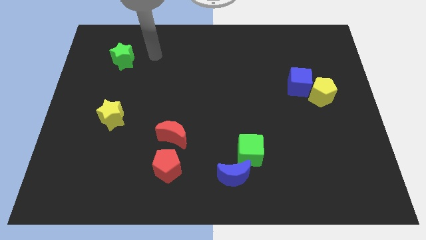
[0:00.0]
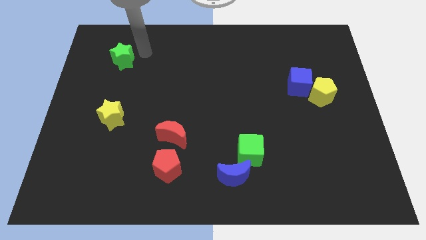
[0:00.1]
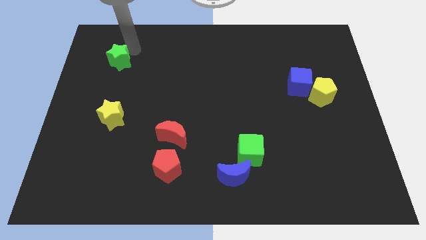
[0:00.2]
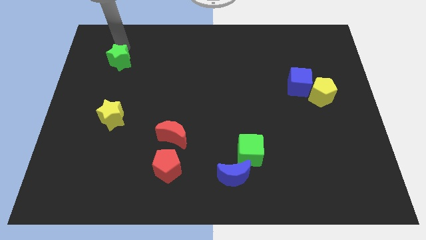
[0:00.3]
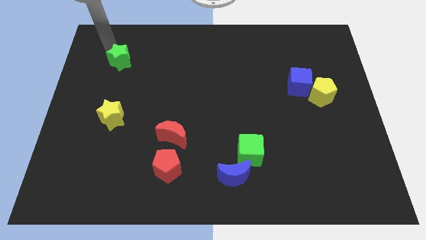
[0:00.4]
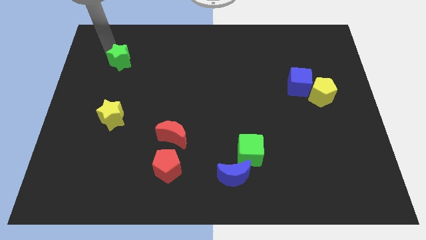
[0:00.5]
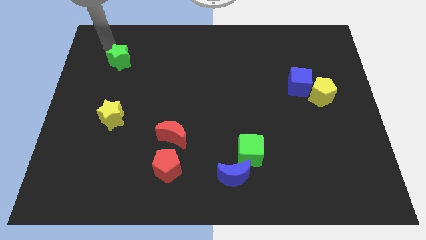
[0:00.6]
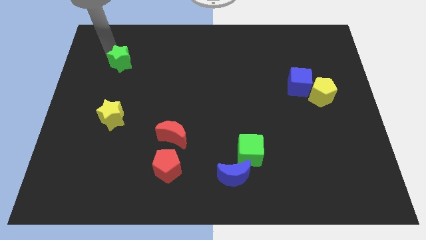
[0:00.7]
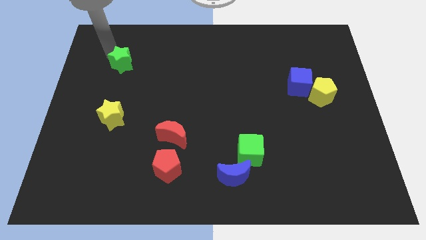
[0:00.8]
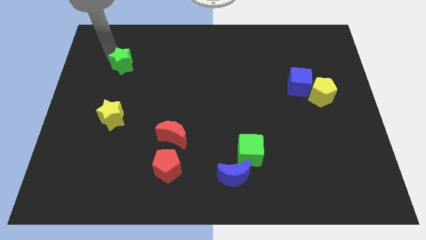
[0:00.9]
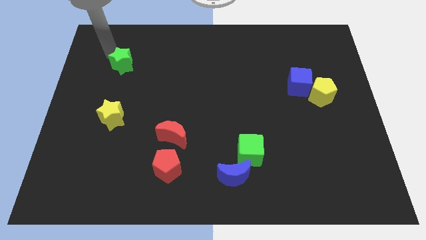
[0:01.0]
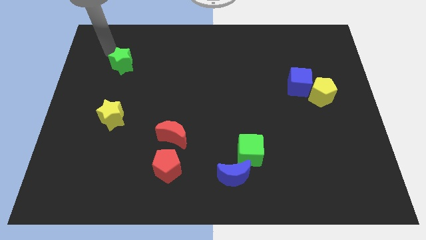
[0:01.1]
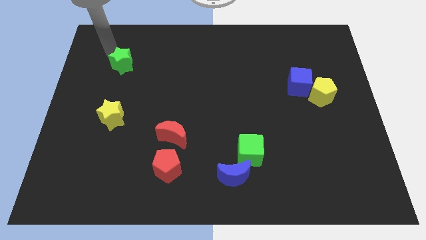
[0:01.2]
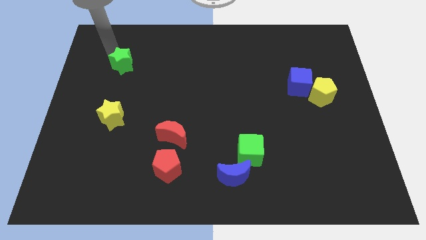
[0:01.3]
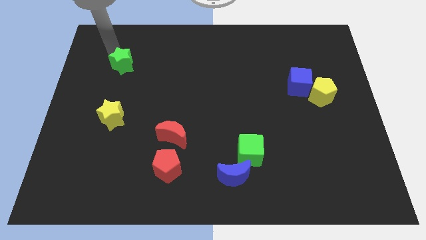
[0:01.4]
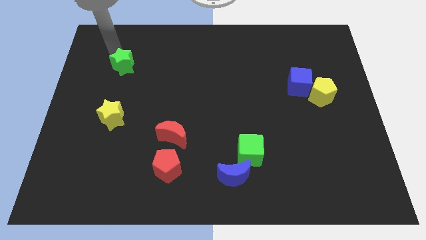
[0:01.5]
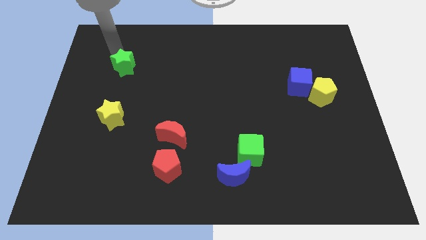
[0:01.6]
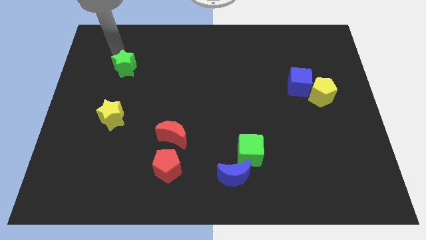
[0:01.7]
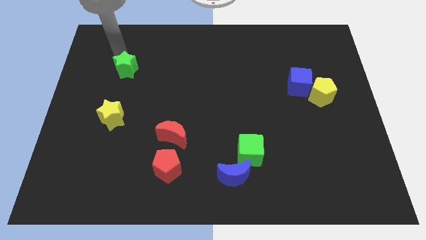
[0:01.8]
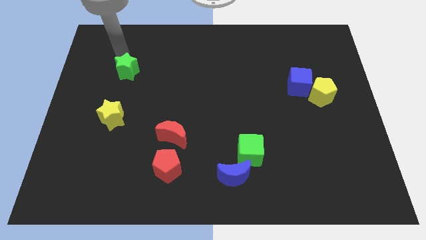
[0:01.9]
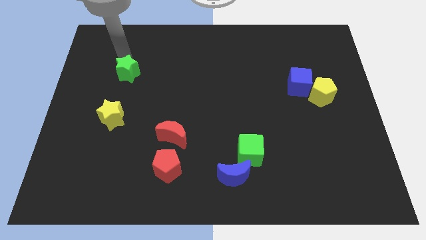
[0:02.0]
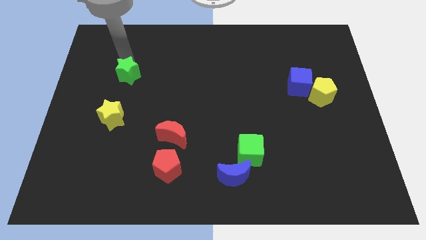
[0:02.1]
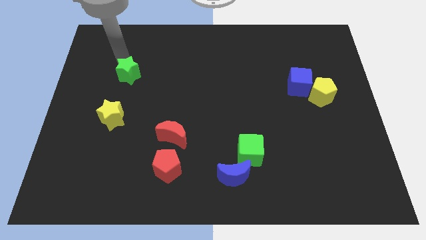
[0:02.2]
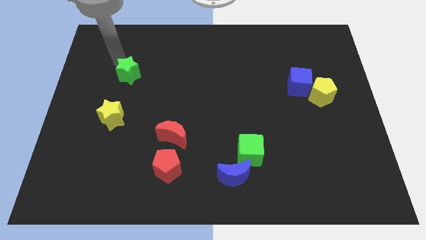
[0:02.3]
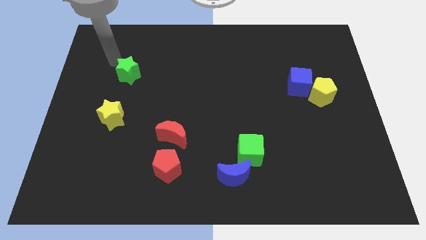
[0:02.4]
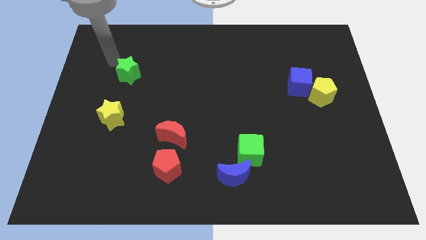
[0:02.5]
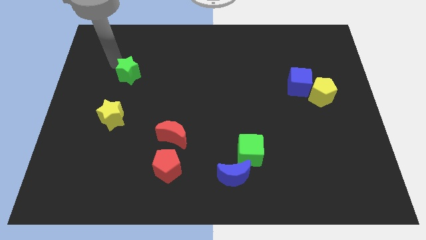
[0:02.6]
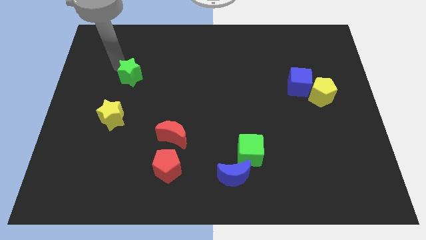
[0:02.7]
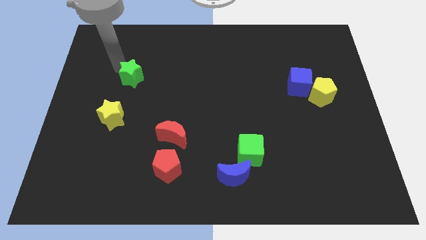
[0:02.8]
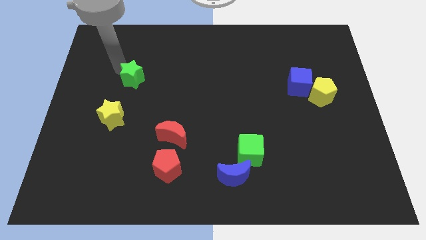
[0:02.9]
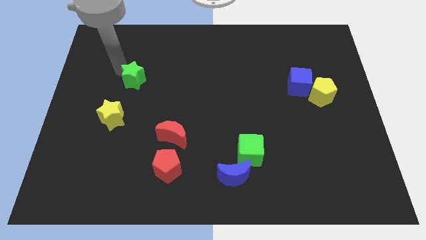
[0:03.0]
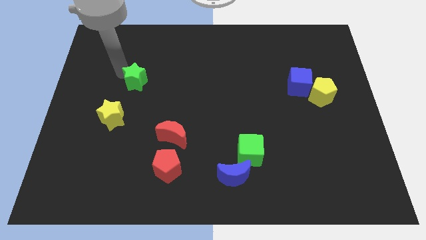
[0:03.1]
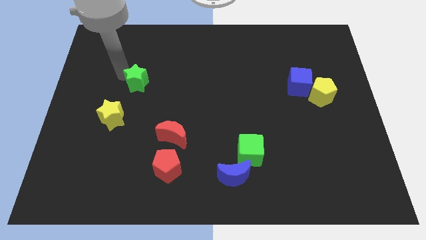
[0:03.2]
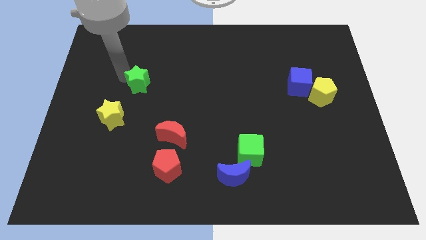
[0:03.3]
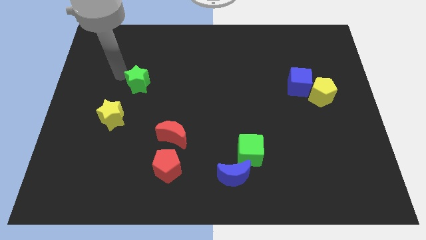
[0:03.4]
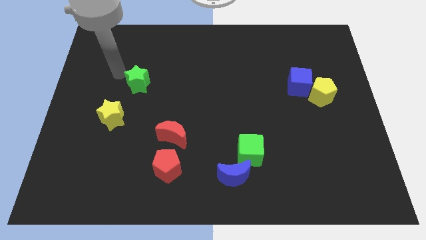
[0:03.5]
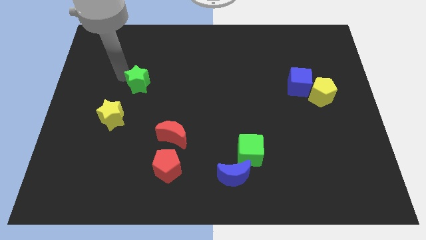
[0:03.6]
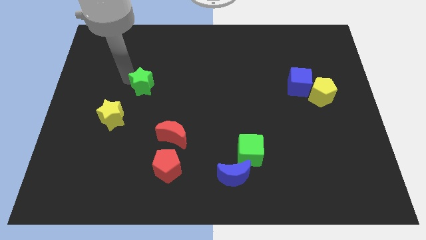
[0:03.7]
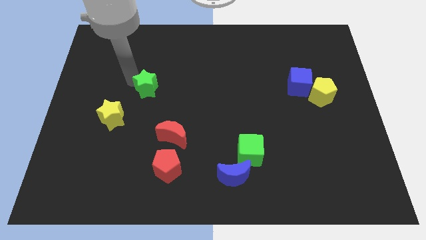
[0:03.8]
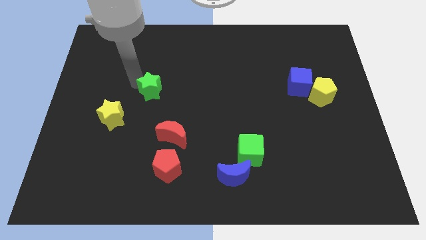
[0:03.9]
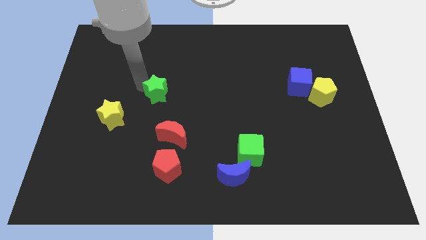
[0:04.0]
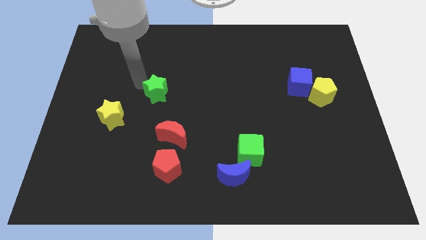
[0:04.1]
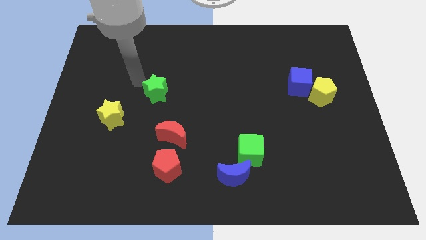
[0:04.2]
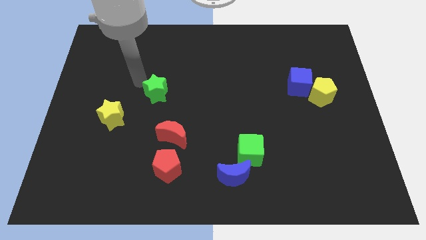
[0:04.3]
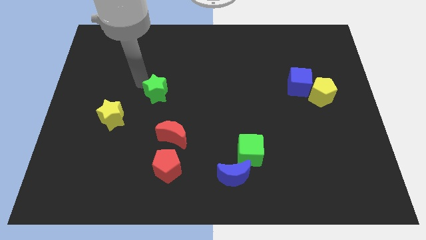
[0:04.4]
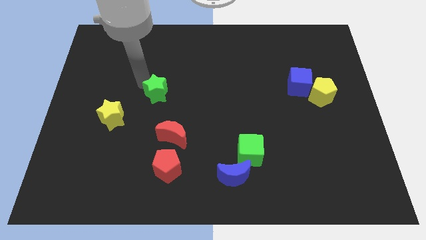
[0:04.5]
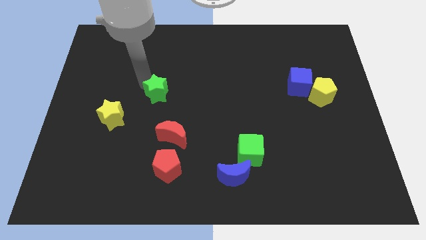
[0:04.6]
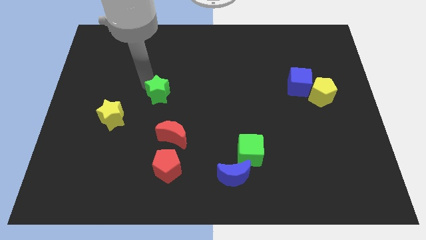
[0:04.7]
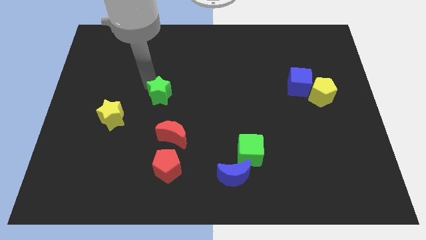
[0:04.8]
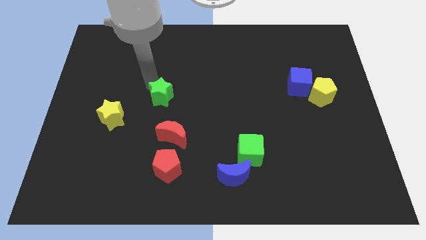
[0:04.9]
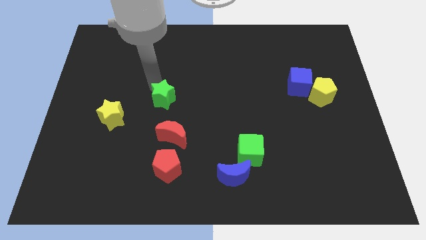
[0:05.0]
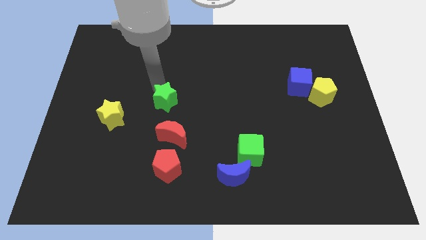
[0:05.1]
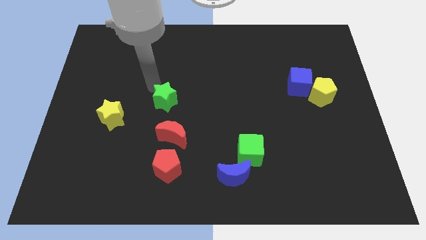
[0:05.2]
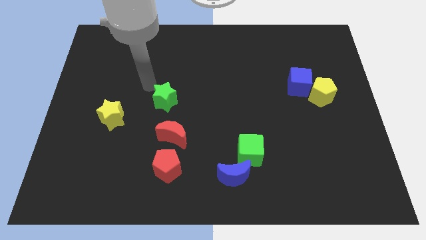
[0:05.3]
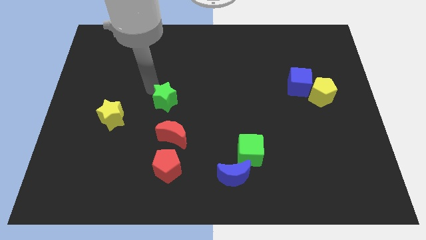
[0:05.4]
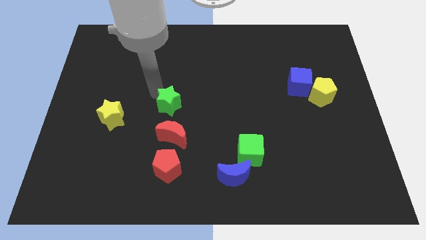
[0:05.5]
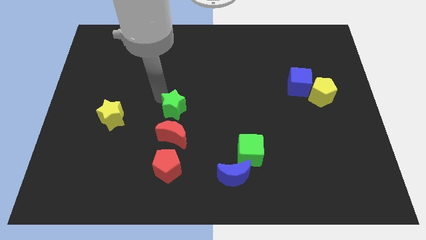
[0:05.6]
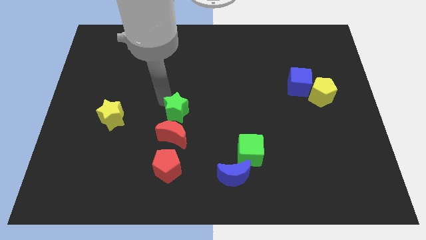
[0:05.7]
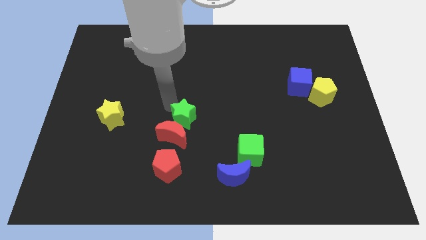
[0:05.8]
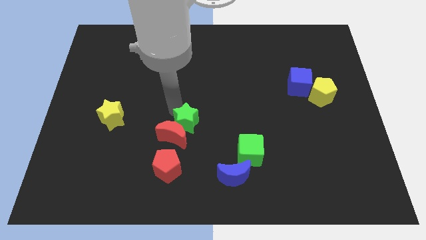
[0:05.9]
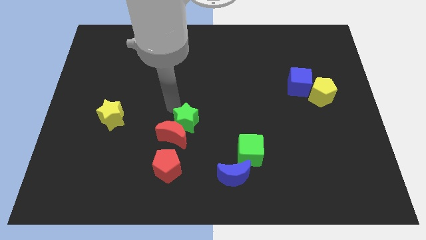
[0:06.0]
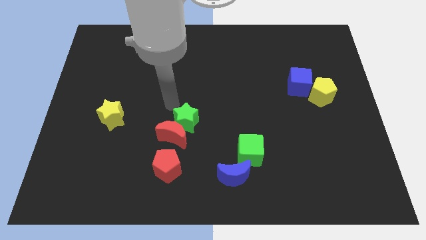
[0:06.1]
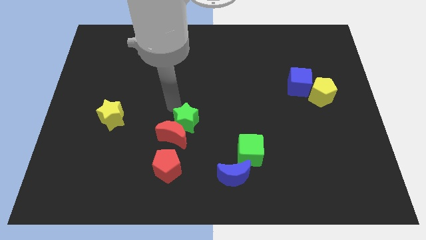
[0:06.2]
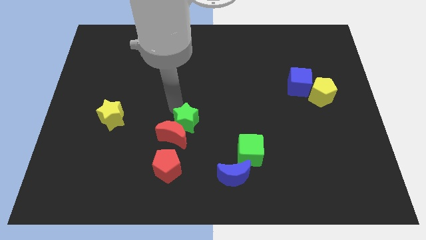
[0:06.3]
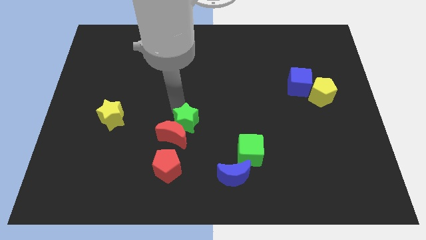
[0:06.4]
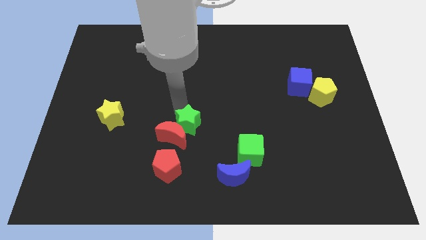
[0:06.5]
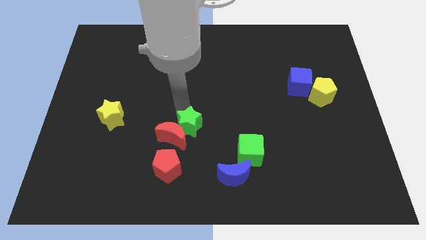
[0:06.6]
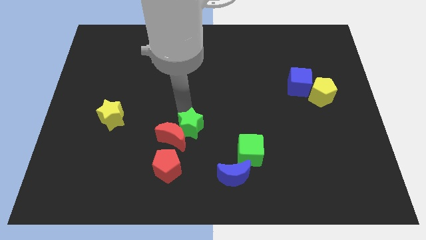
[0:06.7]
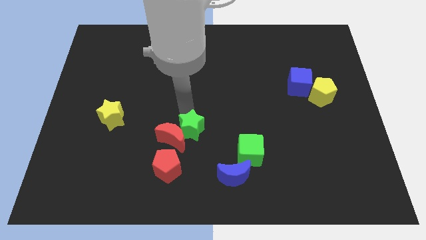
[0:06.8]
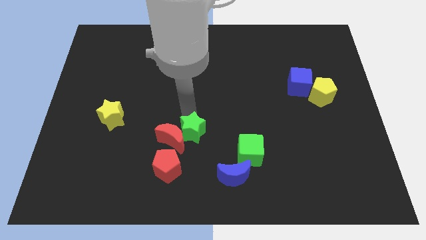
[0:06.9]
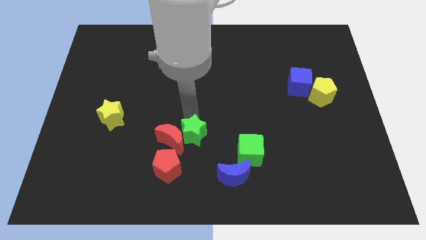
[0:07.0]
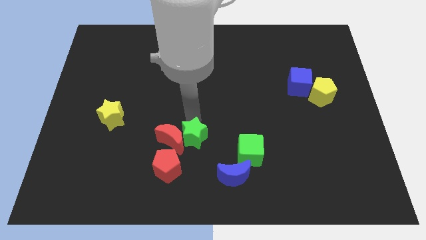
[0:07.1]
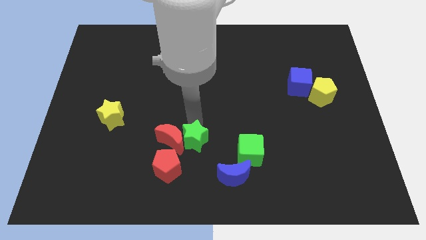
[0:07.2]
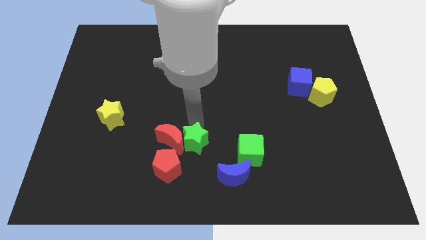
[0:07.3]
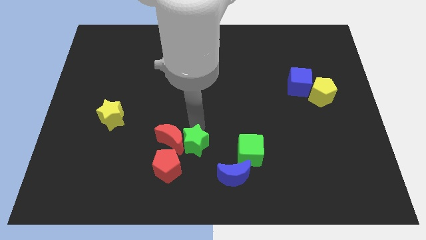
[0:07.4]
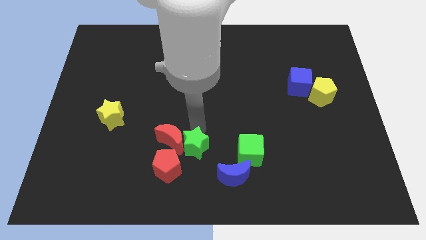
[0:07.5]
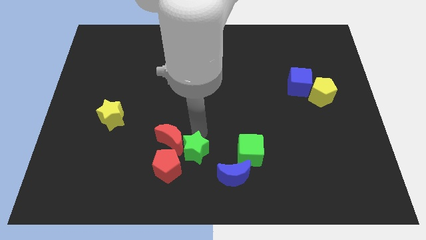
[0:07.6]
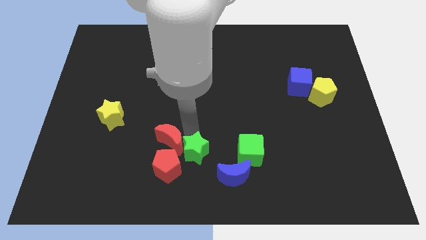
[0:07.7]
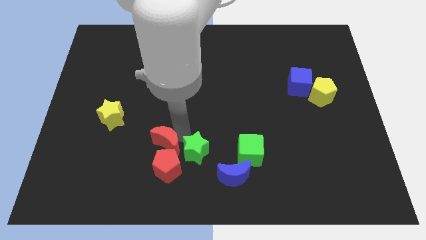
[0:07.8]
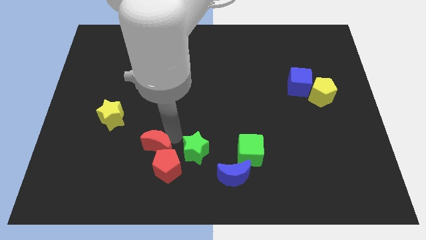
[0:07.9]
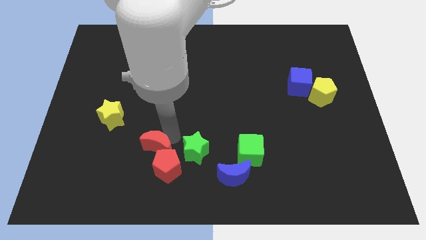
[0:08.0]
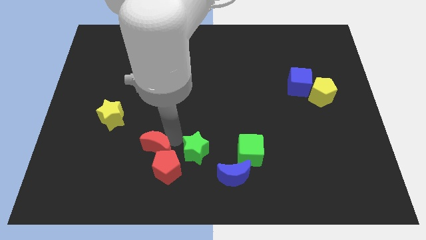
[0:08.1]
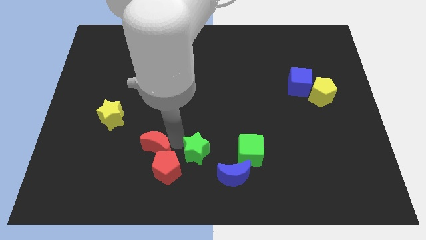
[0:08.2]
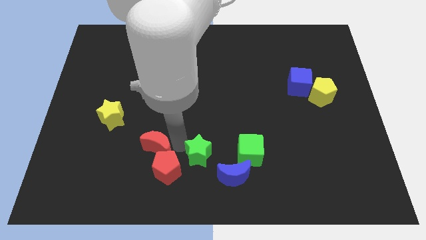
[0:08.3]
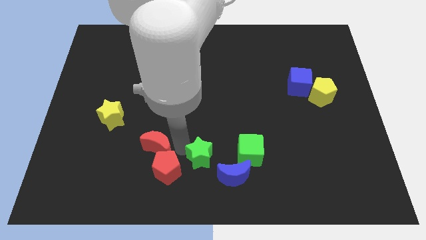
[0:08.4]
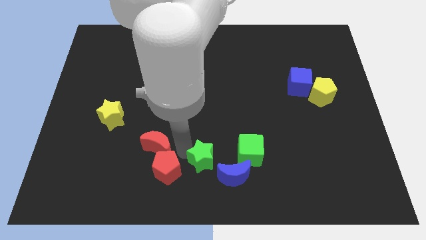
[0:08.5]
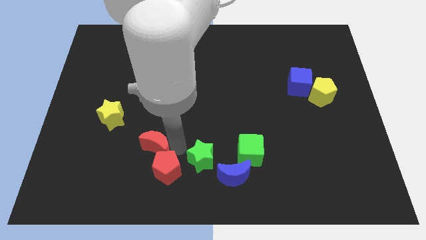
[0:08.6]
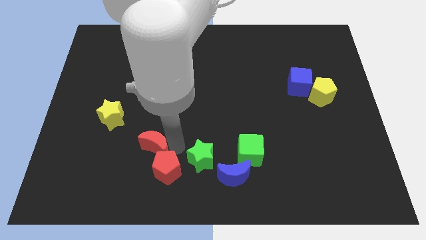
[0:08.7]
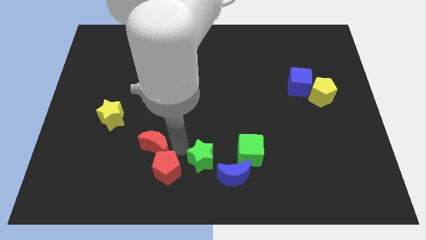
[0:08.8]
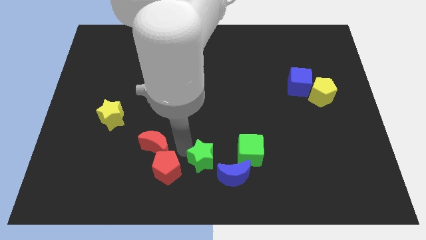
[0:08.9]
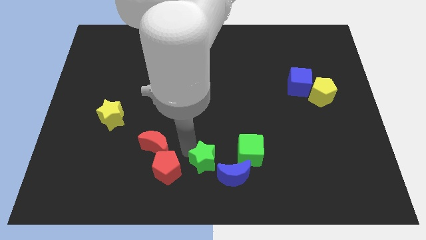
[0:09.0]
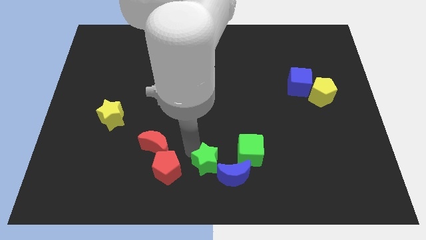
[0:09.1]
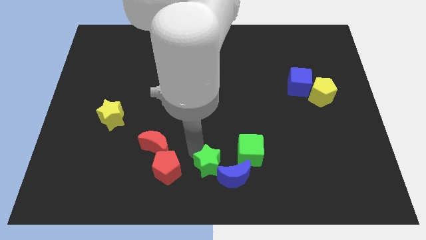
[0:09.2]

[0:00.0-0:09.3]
push the green star close to the blue moon
